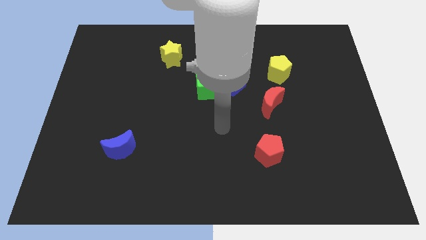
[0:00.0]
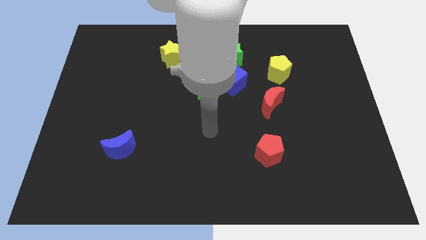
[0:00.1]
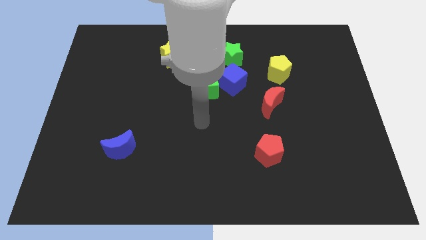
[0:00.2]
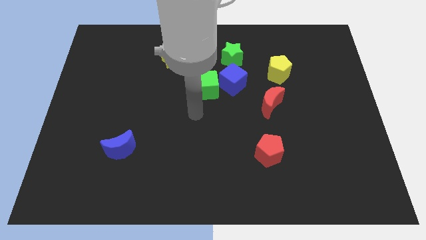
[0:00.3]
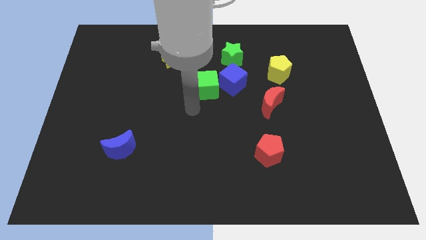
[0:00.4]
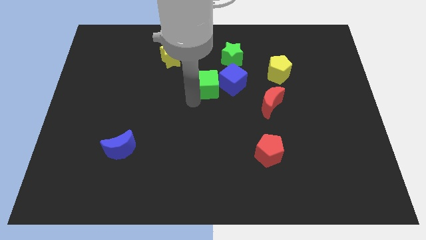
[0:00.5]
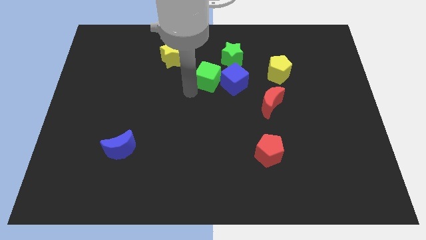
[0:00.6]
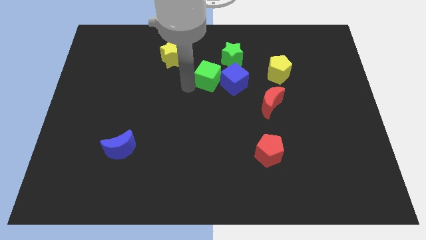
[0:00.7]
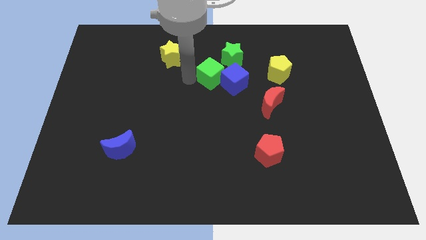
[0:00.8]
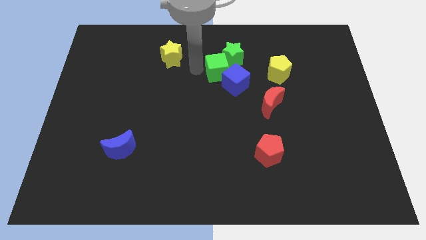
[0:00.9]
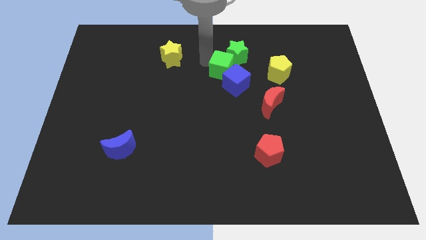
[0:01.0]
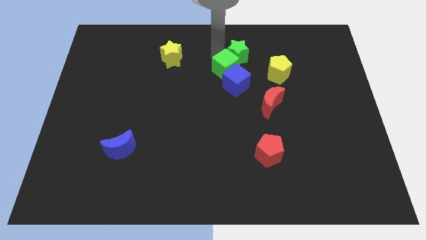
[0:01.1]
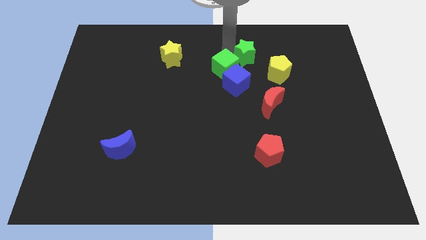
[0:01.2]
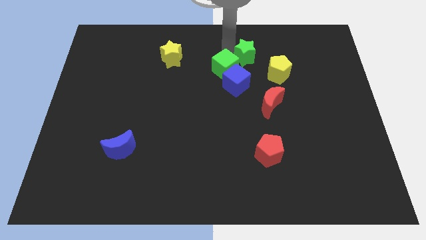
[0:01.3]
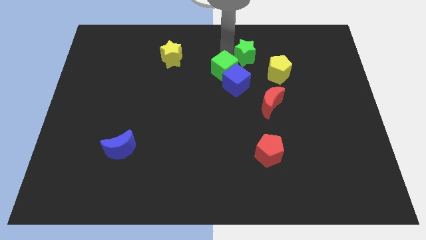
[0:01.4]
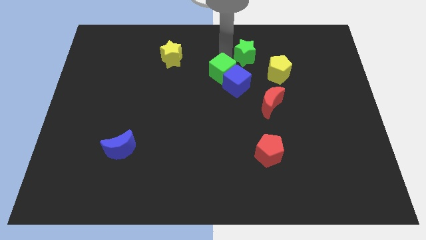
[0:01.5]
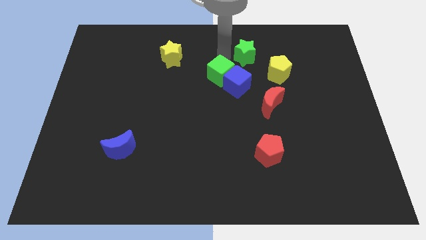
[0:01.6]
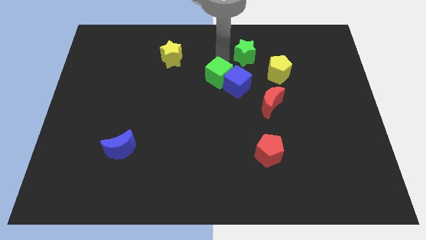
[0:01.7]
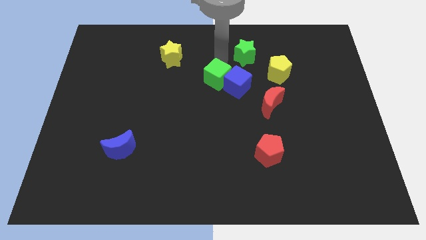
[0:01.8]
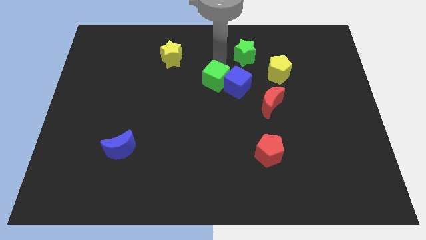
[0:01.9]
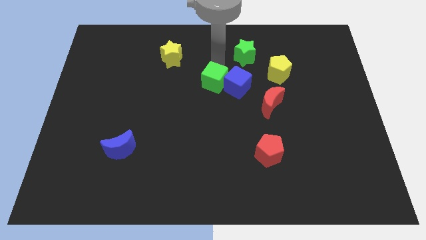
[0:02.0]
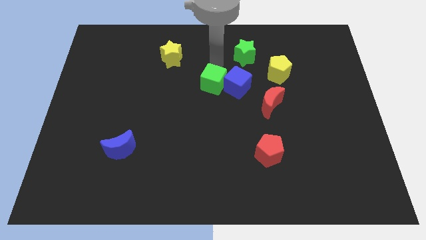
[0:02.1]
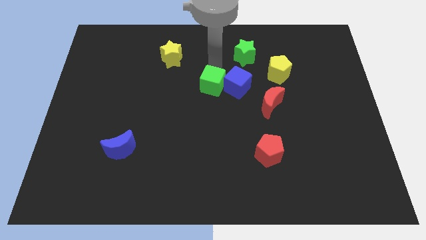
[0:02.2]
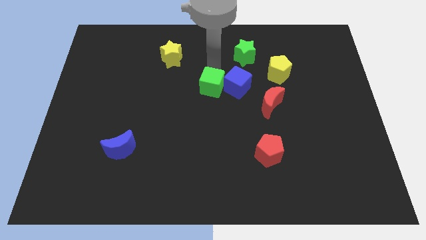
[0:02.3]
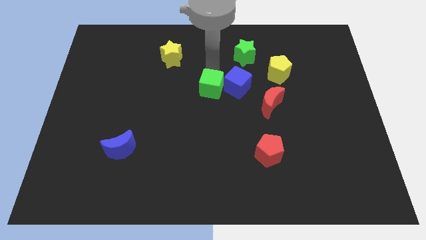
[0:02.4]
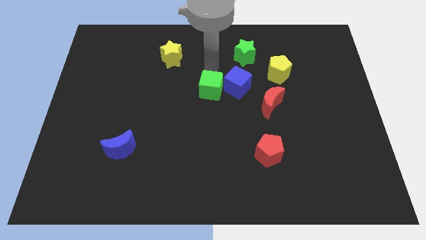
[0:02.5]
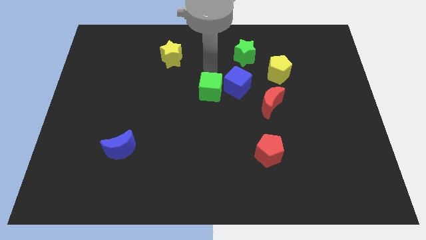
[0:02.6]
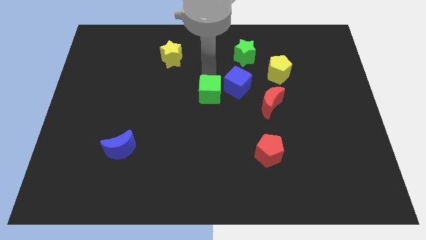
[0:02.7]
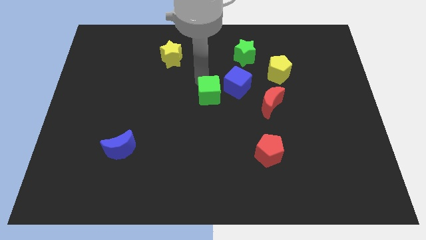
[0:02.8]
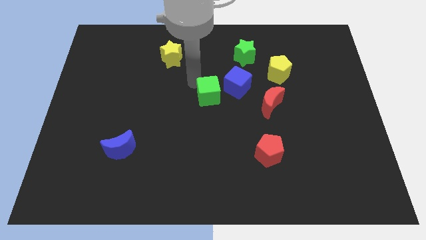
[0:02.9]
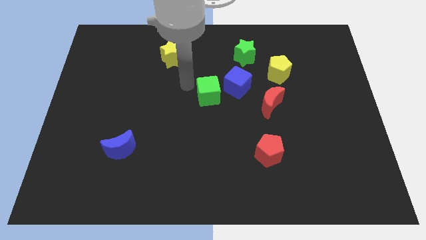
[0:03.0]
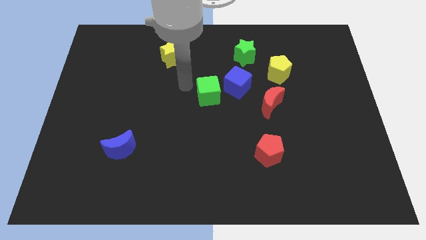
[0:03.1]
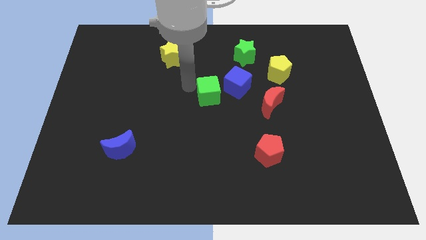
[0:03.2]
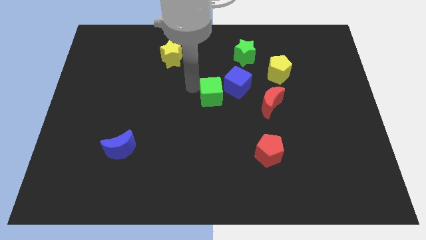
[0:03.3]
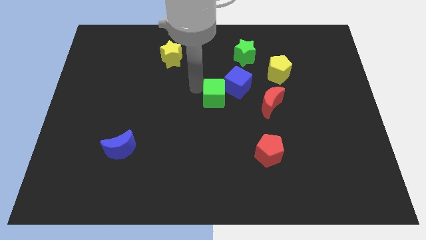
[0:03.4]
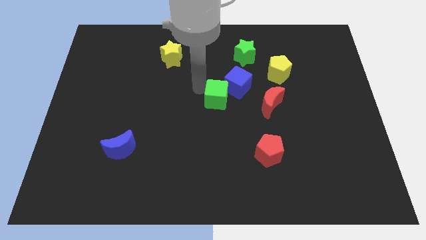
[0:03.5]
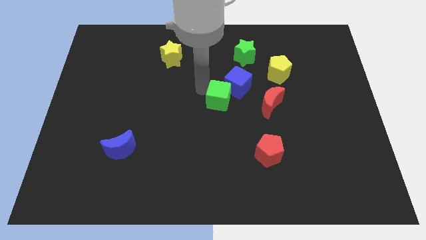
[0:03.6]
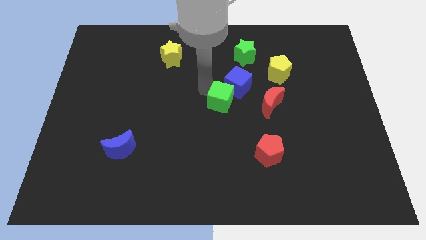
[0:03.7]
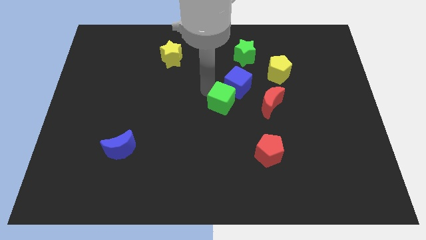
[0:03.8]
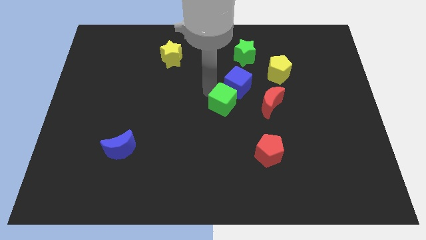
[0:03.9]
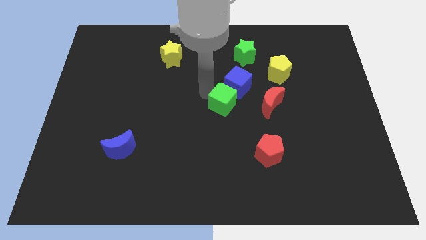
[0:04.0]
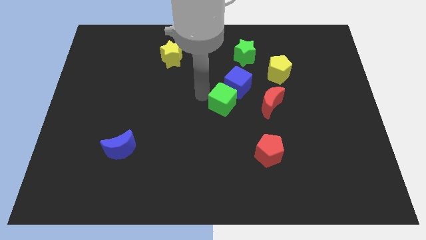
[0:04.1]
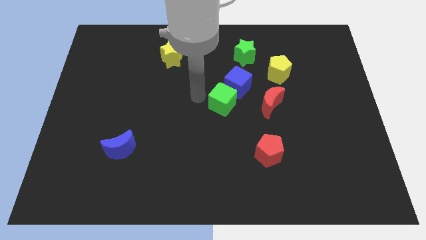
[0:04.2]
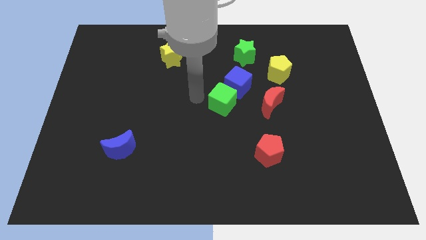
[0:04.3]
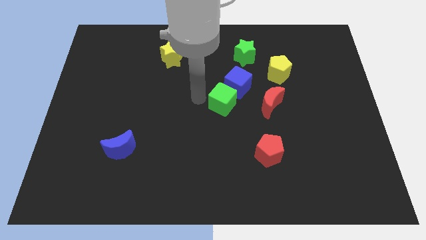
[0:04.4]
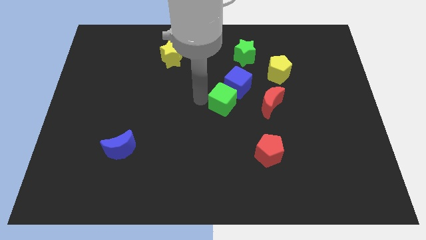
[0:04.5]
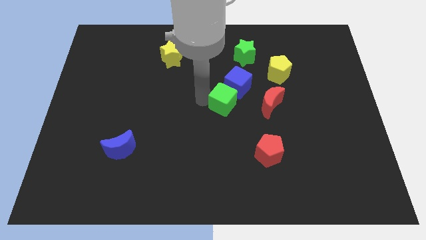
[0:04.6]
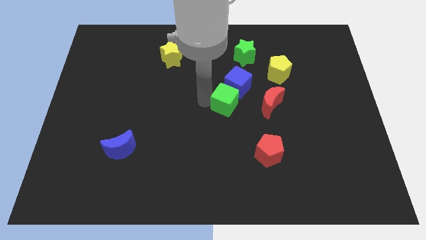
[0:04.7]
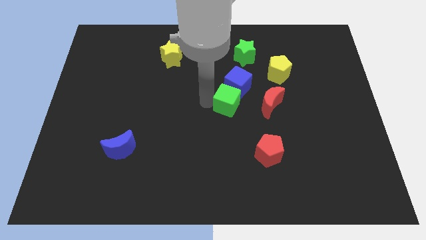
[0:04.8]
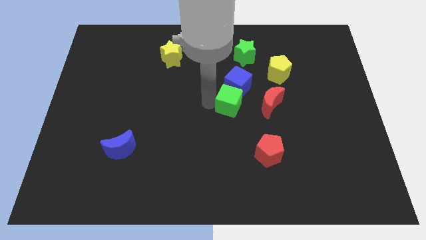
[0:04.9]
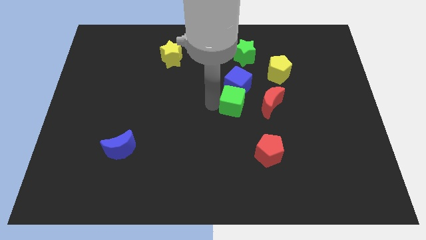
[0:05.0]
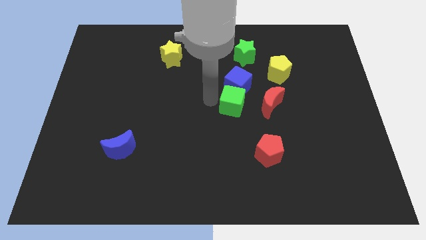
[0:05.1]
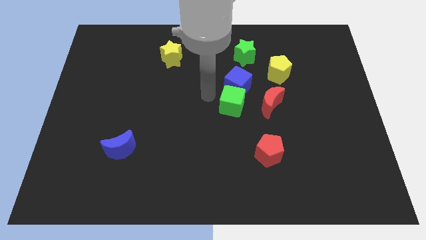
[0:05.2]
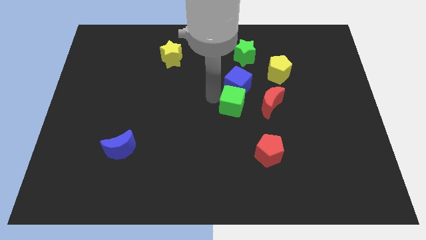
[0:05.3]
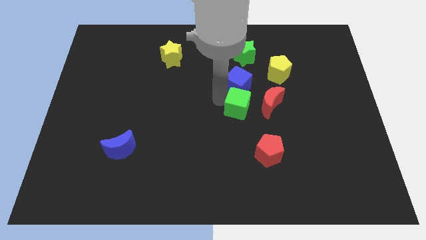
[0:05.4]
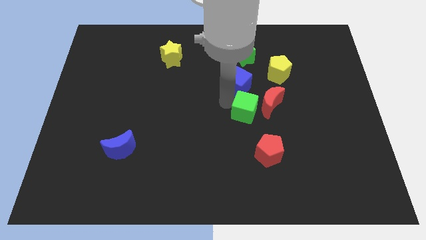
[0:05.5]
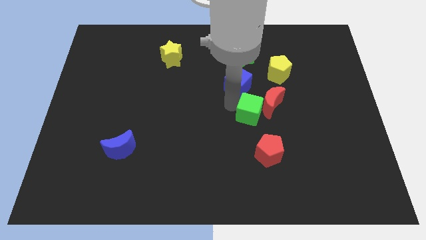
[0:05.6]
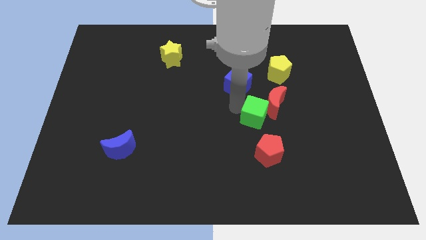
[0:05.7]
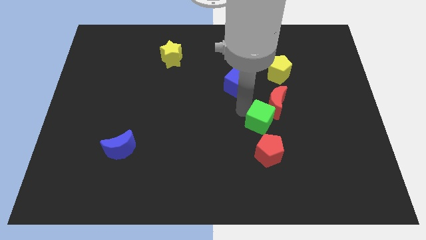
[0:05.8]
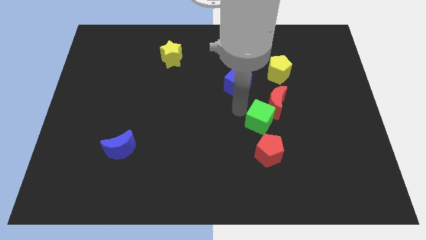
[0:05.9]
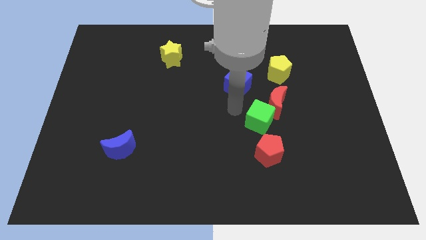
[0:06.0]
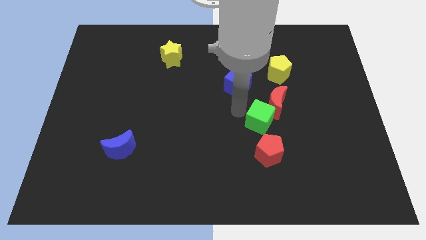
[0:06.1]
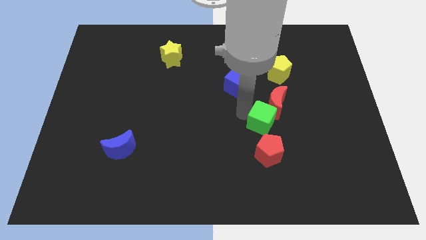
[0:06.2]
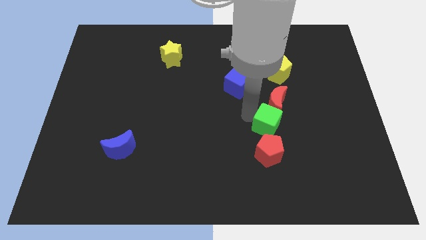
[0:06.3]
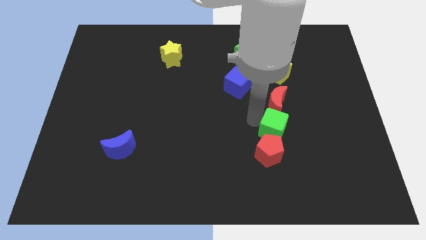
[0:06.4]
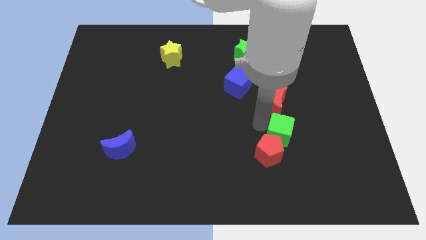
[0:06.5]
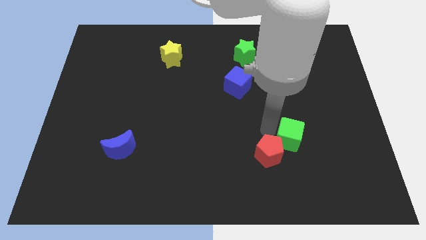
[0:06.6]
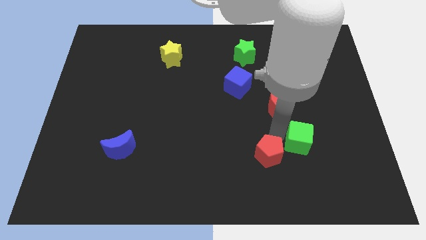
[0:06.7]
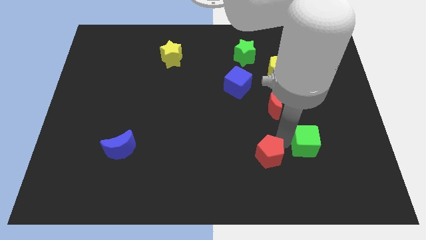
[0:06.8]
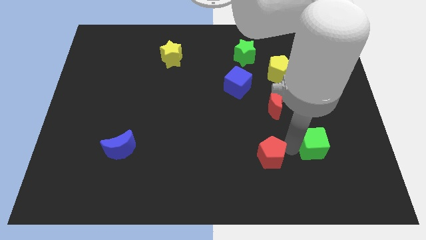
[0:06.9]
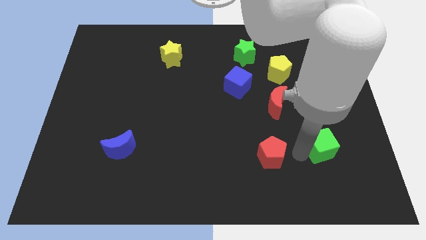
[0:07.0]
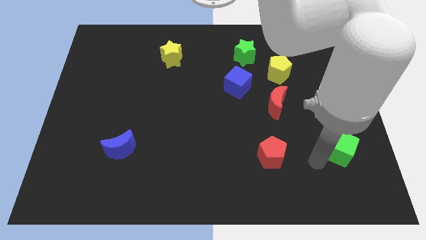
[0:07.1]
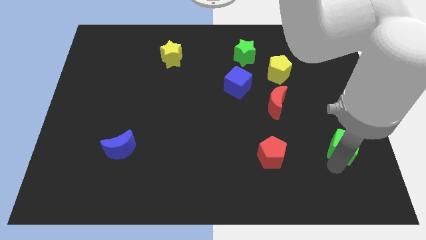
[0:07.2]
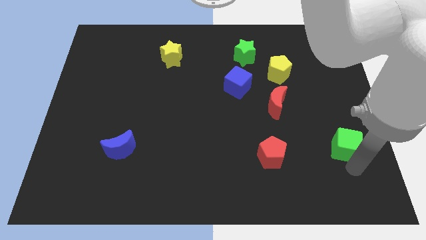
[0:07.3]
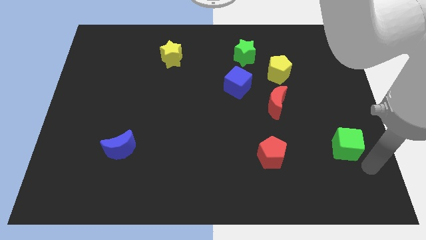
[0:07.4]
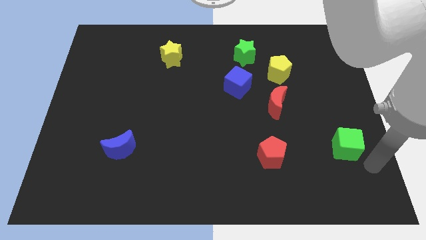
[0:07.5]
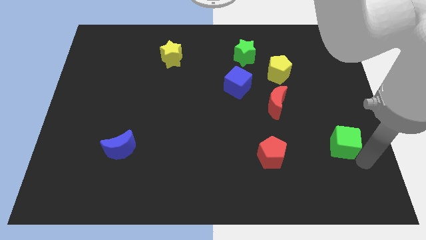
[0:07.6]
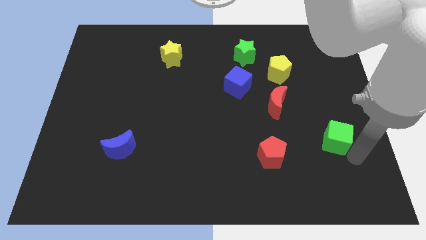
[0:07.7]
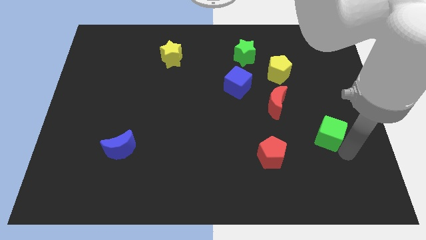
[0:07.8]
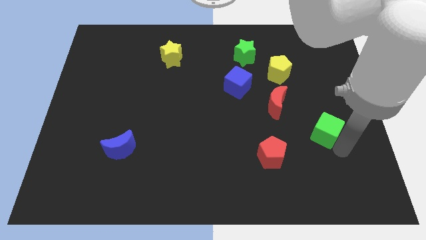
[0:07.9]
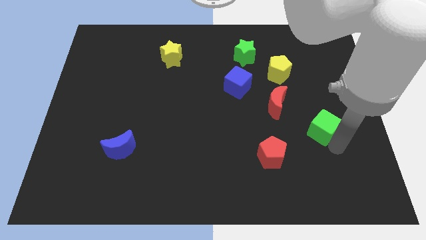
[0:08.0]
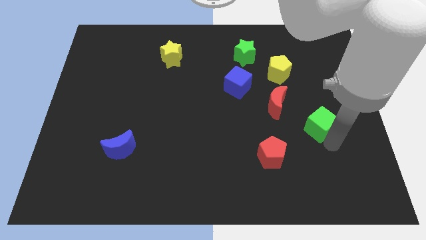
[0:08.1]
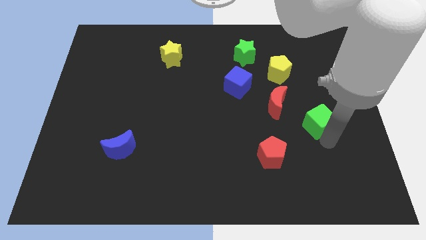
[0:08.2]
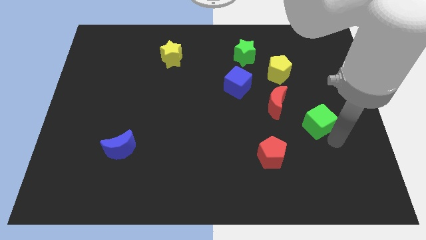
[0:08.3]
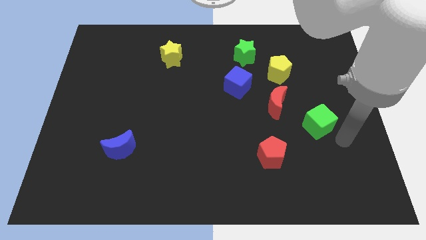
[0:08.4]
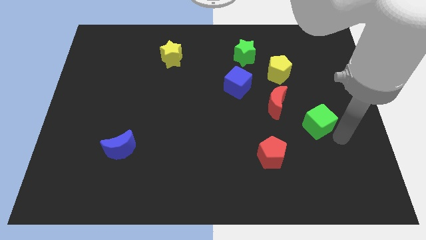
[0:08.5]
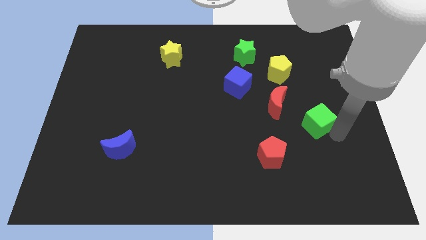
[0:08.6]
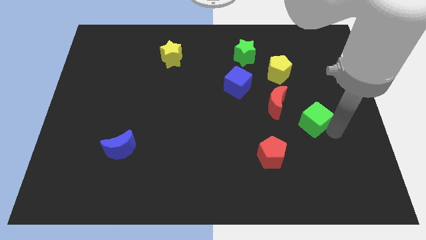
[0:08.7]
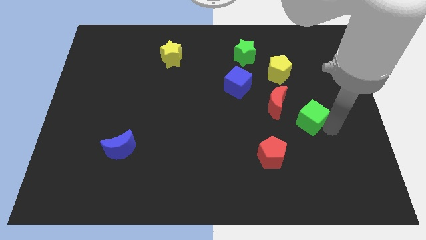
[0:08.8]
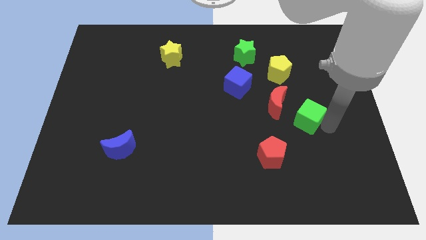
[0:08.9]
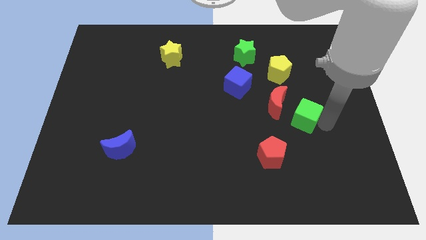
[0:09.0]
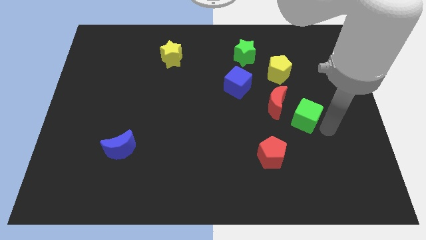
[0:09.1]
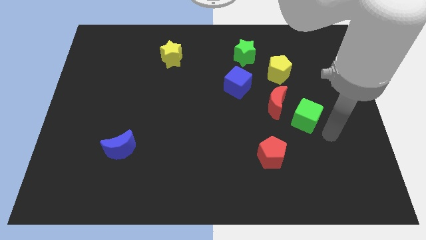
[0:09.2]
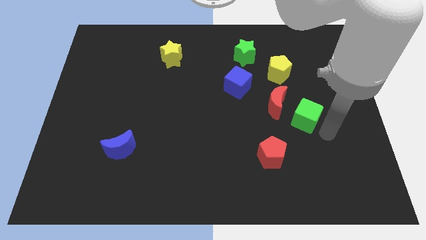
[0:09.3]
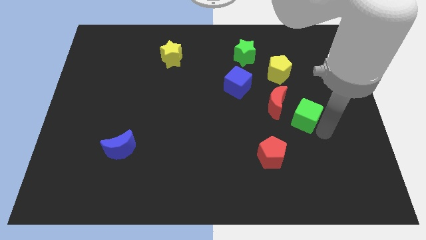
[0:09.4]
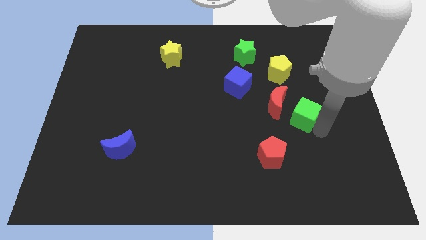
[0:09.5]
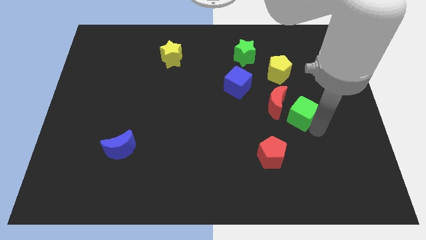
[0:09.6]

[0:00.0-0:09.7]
slide the green cube below the yellow pentagon
